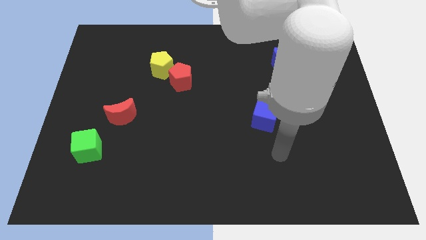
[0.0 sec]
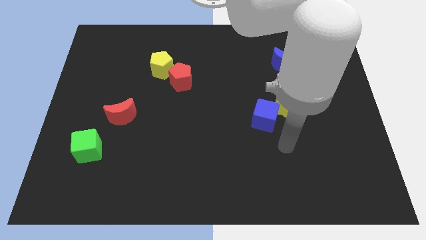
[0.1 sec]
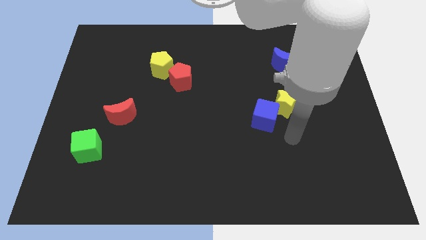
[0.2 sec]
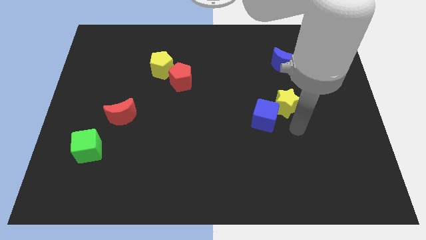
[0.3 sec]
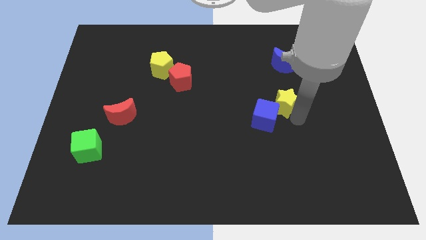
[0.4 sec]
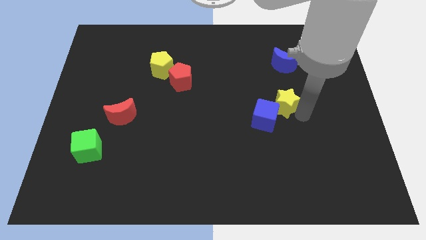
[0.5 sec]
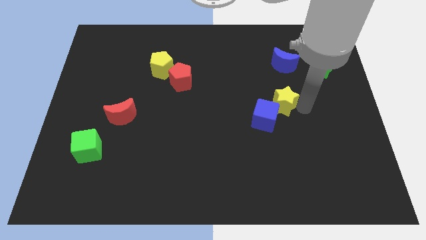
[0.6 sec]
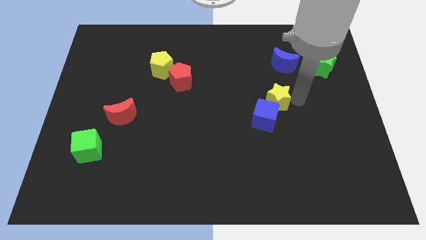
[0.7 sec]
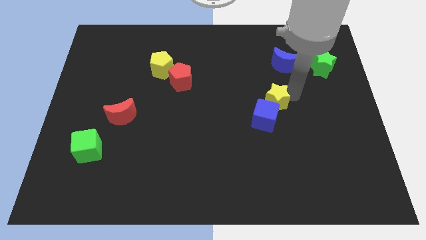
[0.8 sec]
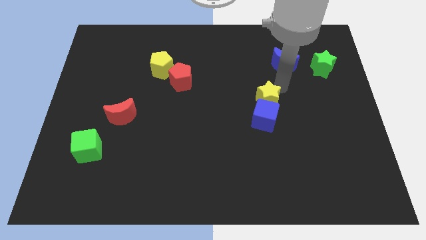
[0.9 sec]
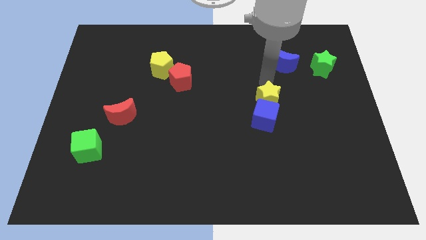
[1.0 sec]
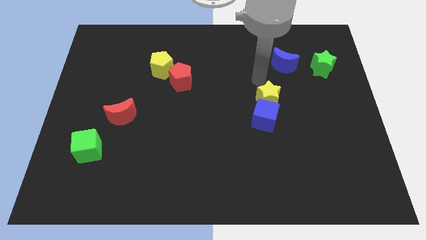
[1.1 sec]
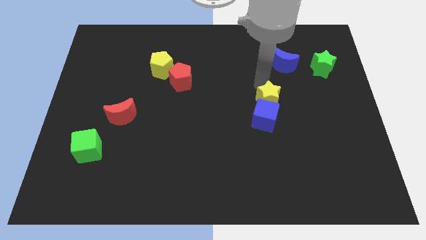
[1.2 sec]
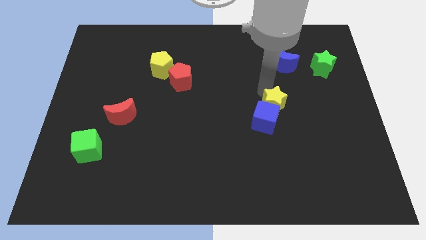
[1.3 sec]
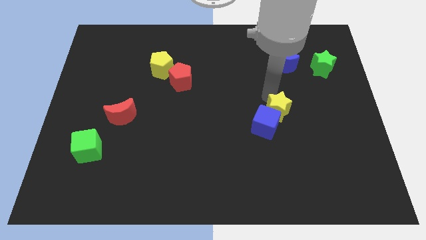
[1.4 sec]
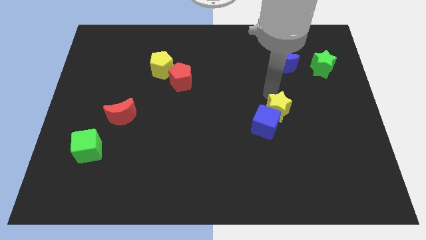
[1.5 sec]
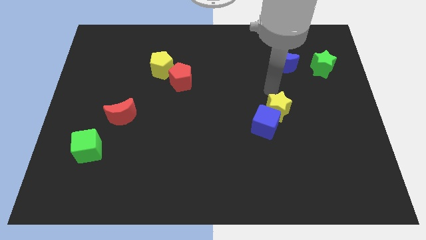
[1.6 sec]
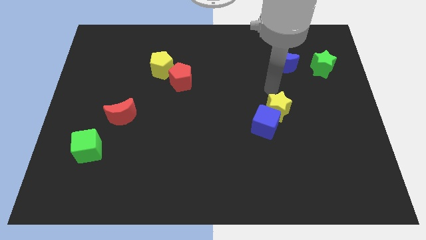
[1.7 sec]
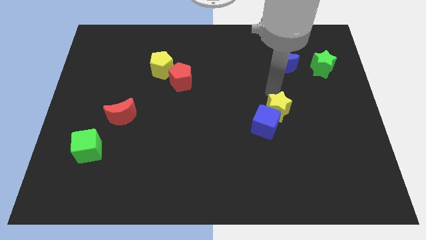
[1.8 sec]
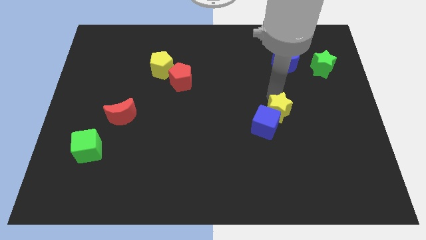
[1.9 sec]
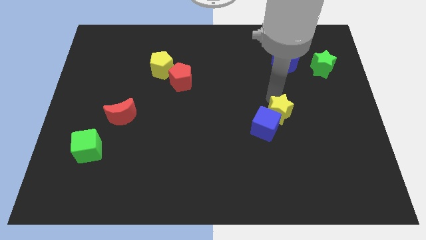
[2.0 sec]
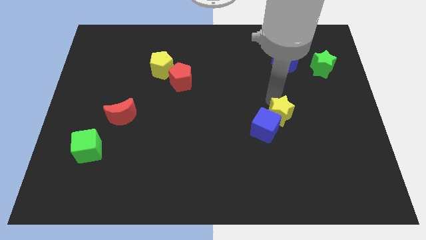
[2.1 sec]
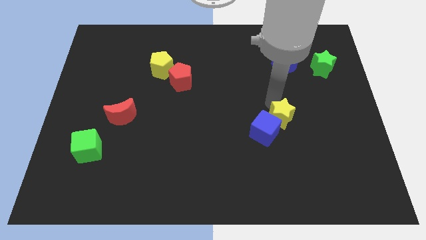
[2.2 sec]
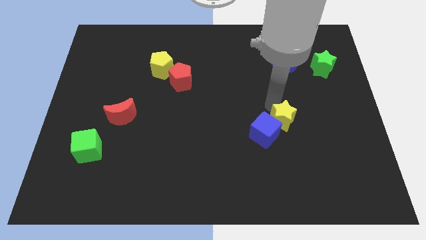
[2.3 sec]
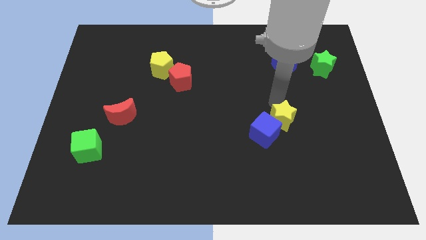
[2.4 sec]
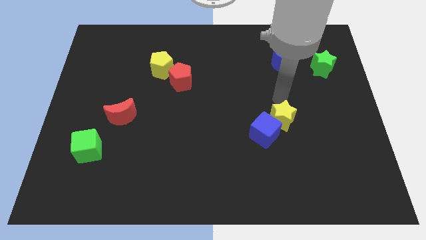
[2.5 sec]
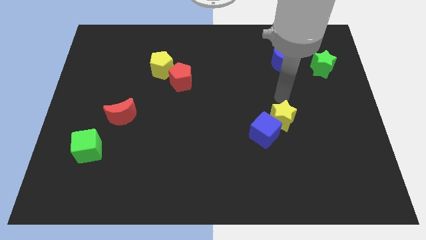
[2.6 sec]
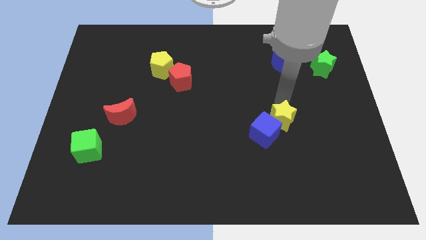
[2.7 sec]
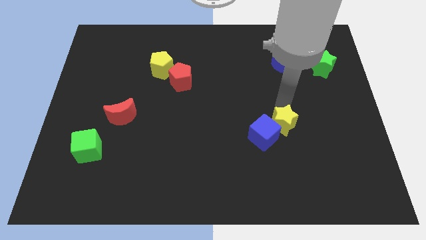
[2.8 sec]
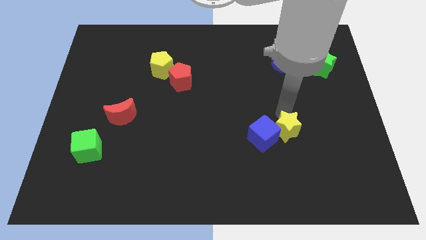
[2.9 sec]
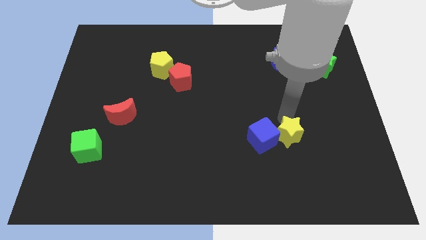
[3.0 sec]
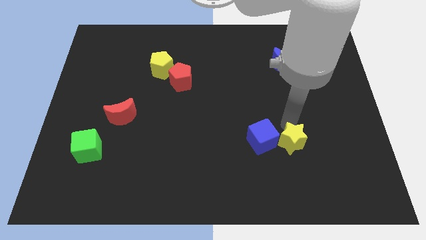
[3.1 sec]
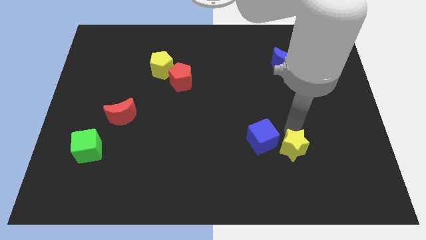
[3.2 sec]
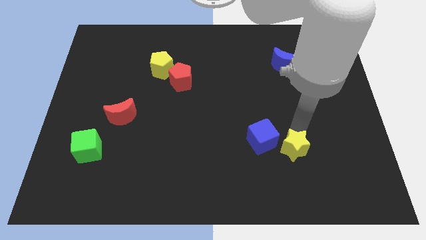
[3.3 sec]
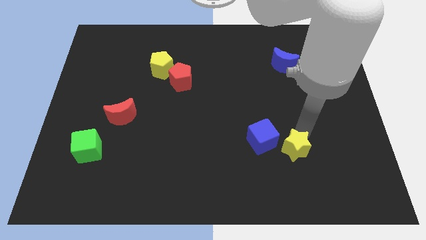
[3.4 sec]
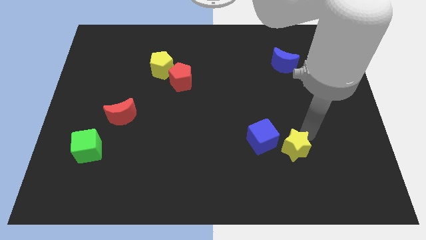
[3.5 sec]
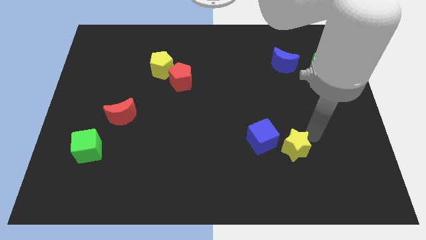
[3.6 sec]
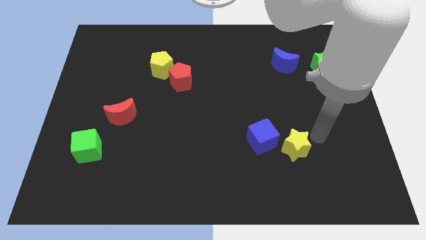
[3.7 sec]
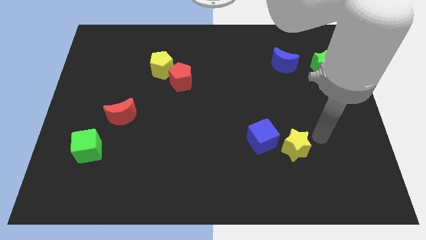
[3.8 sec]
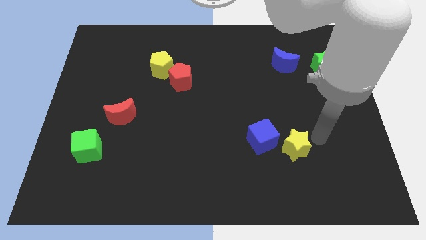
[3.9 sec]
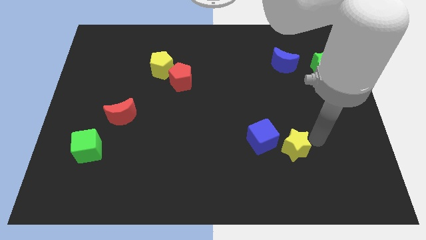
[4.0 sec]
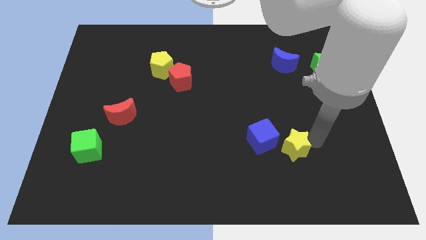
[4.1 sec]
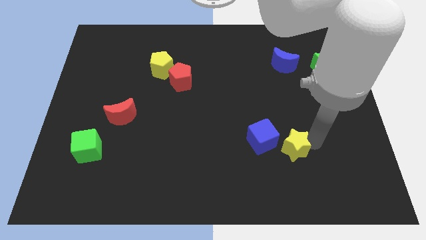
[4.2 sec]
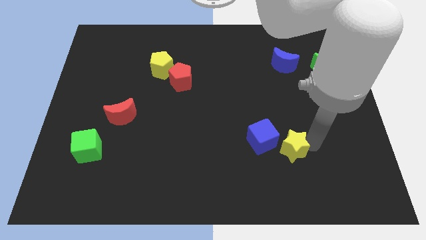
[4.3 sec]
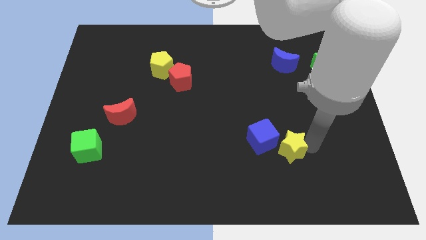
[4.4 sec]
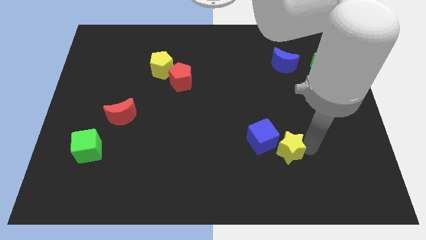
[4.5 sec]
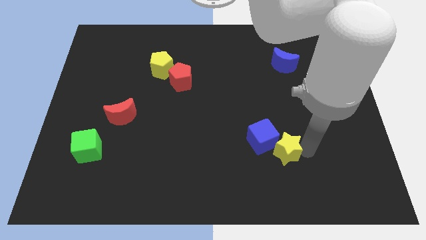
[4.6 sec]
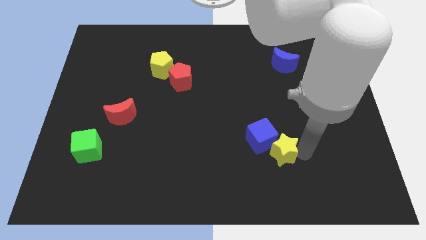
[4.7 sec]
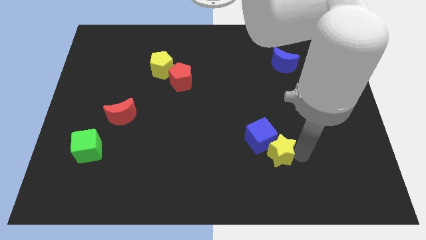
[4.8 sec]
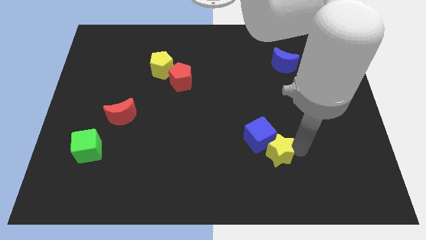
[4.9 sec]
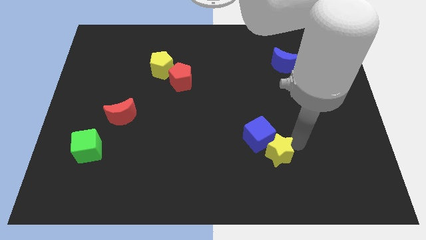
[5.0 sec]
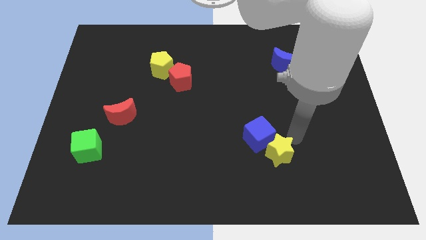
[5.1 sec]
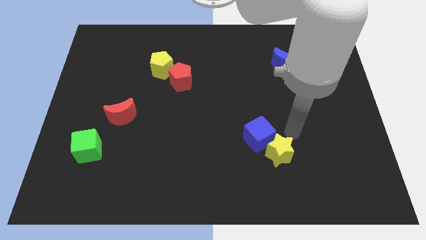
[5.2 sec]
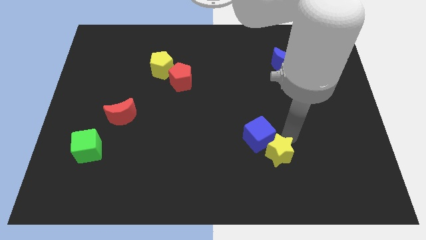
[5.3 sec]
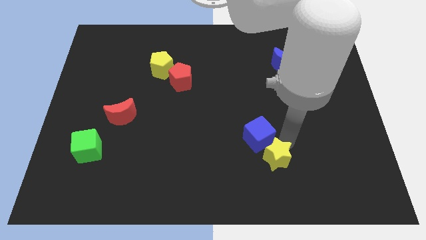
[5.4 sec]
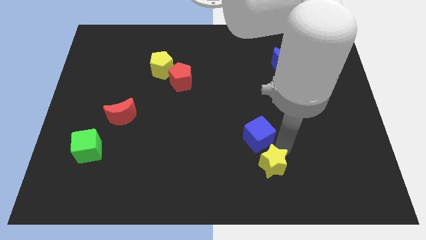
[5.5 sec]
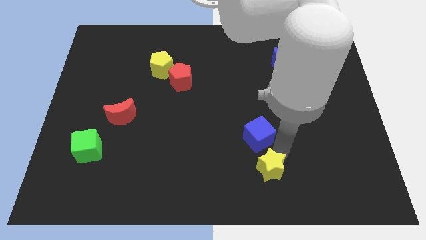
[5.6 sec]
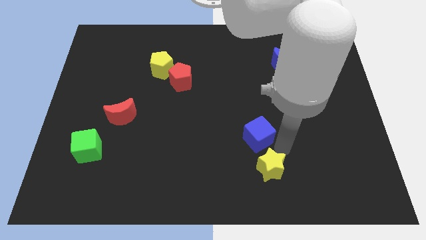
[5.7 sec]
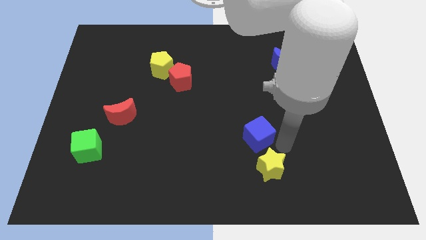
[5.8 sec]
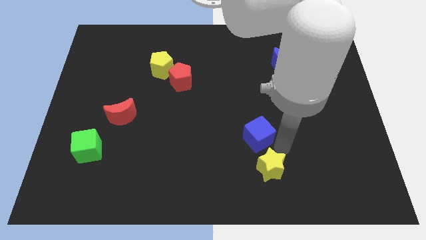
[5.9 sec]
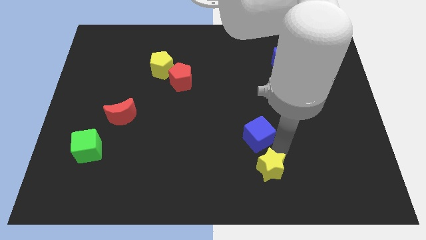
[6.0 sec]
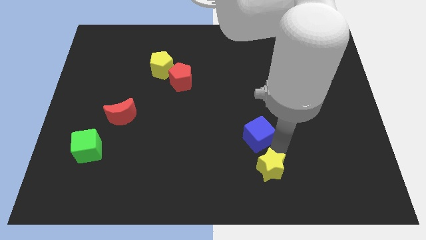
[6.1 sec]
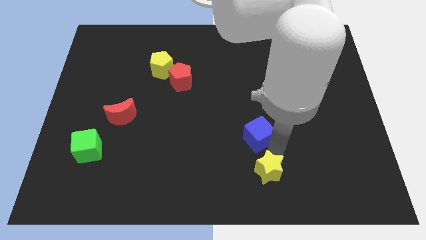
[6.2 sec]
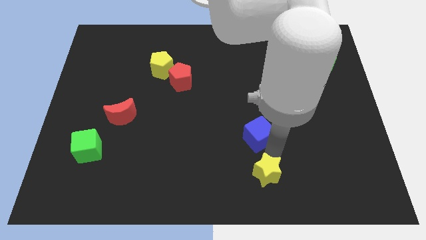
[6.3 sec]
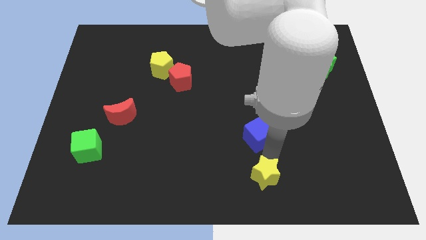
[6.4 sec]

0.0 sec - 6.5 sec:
move the yellow star to the bottom side
